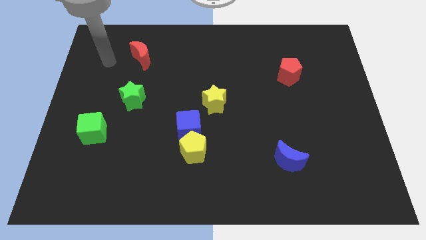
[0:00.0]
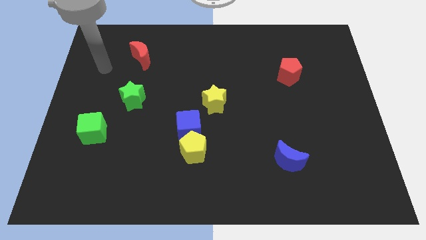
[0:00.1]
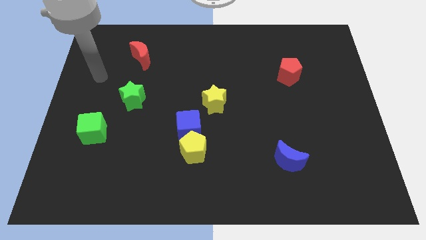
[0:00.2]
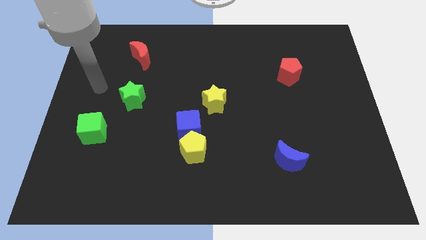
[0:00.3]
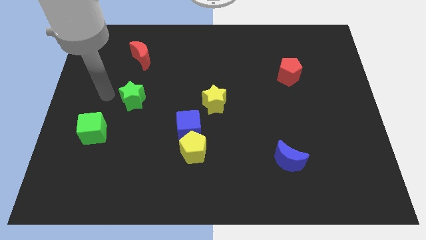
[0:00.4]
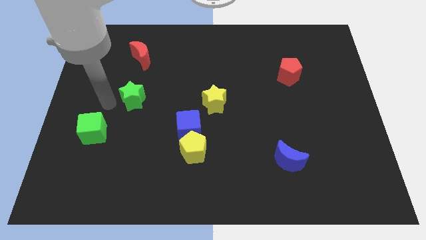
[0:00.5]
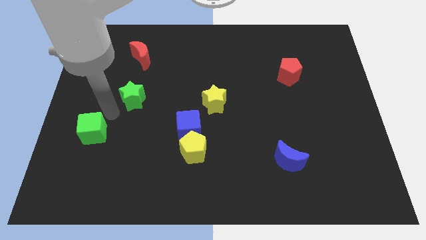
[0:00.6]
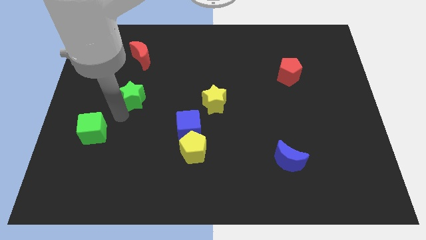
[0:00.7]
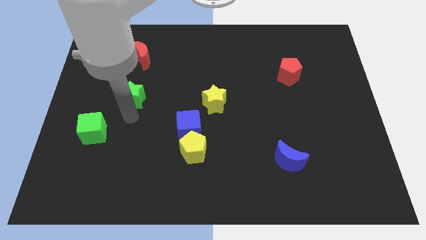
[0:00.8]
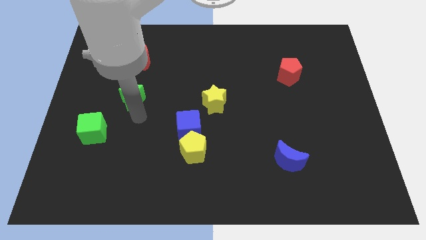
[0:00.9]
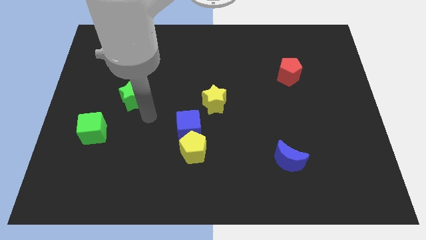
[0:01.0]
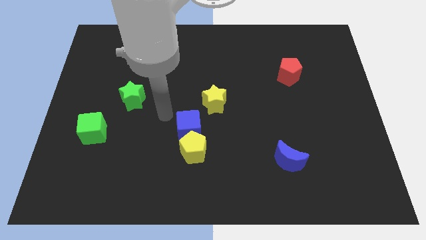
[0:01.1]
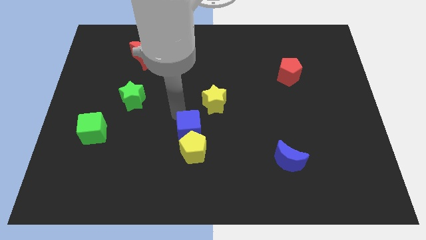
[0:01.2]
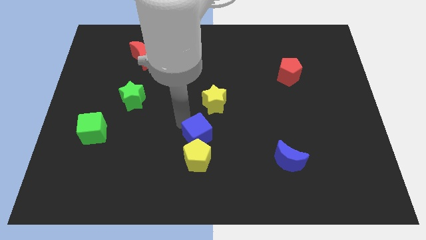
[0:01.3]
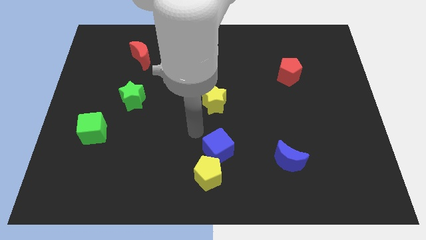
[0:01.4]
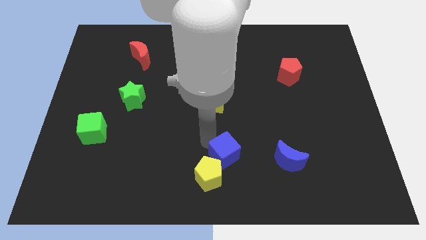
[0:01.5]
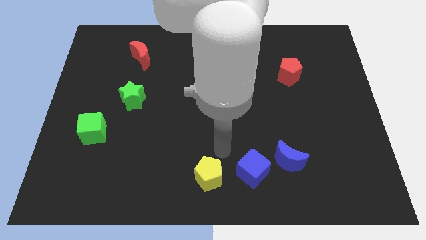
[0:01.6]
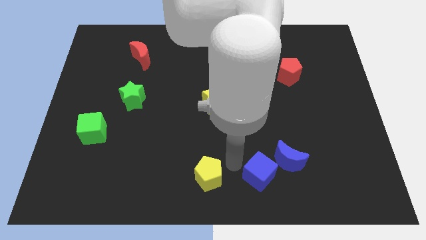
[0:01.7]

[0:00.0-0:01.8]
separate the yellow pentagon from the blue cube

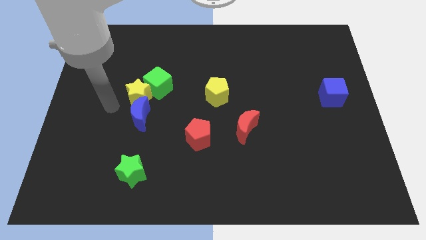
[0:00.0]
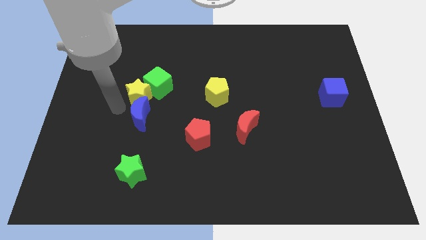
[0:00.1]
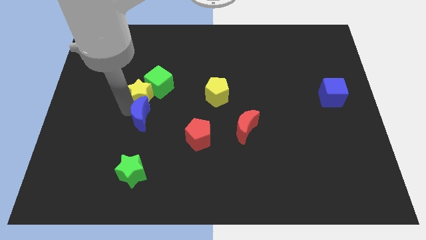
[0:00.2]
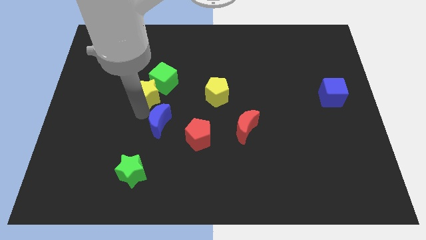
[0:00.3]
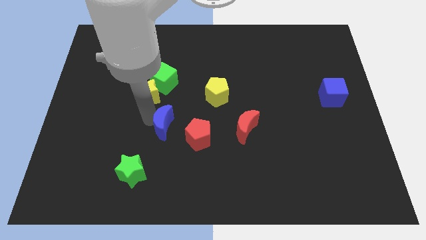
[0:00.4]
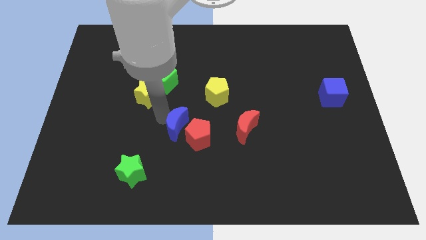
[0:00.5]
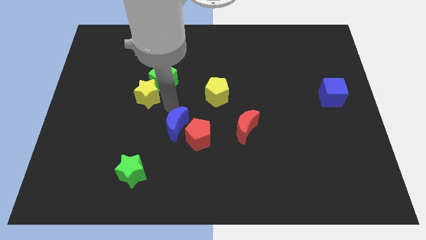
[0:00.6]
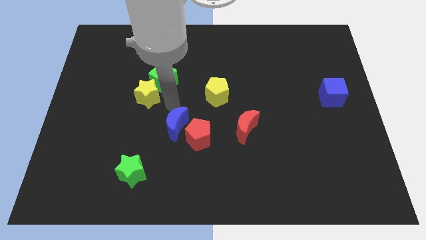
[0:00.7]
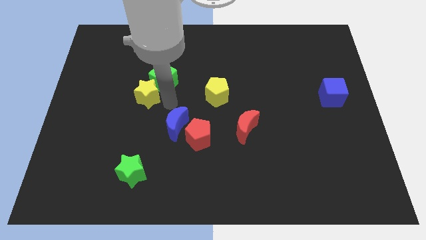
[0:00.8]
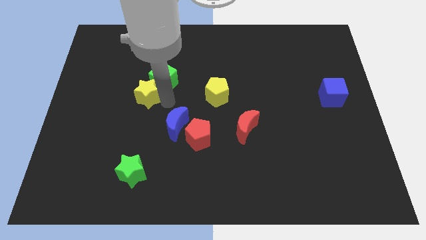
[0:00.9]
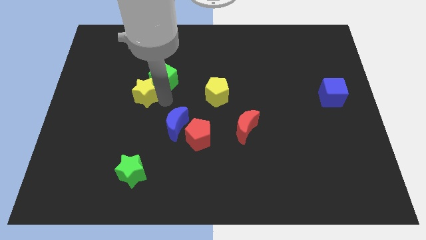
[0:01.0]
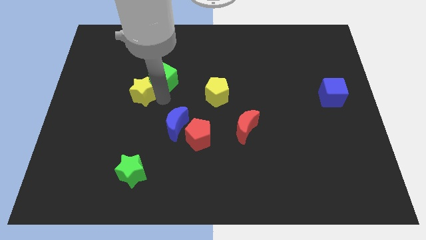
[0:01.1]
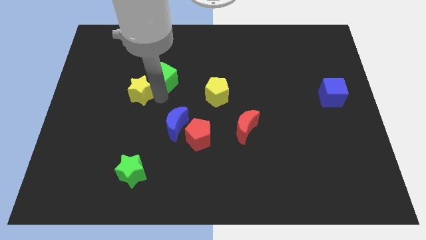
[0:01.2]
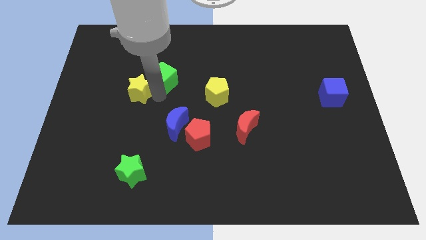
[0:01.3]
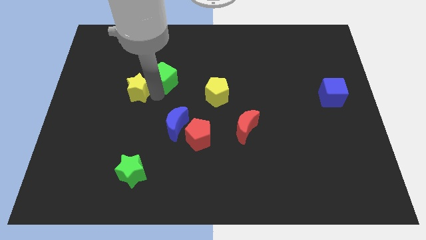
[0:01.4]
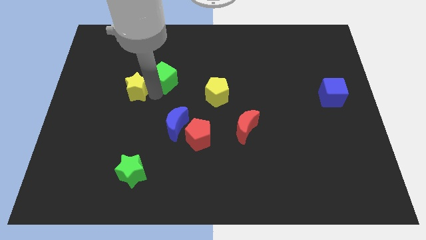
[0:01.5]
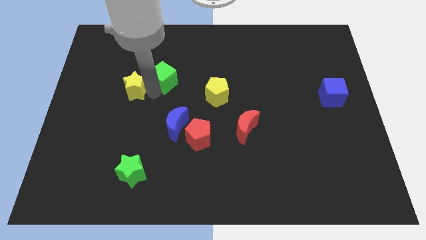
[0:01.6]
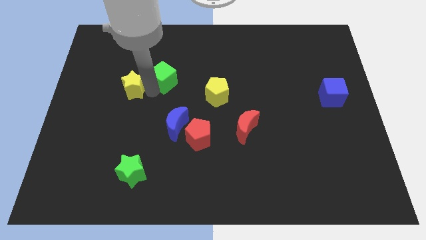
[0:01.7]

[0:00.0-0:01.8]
separate the yellow star from the green cube and blue moon

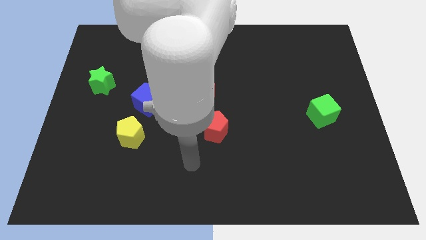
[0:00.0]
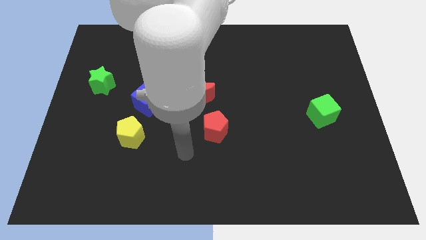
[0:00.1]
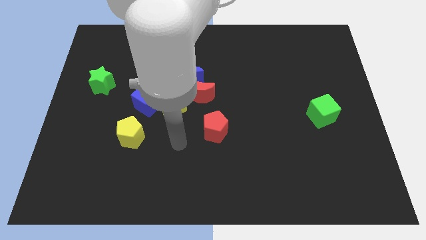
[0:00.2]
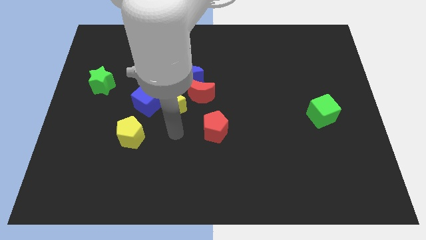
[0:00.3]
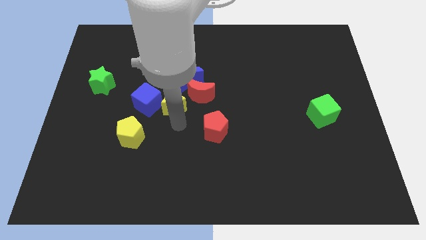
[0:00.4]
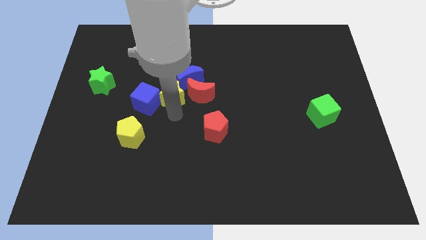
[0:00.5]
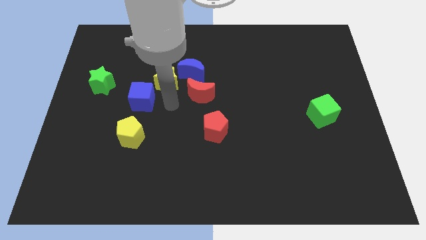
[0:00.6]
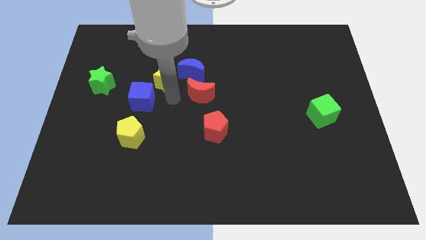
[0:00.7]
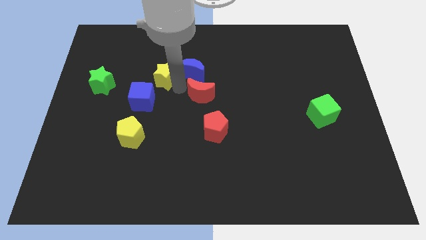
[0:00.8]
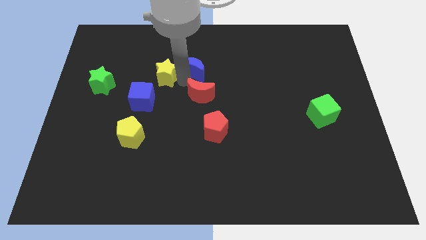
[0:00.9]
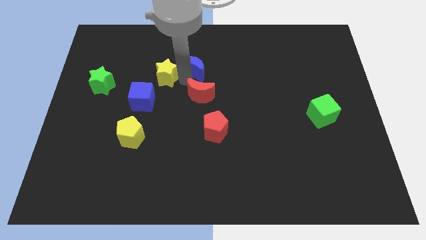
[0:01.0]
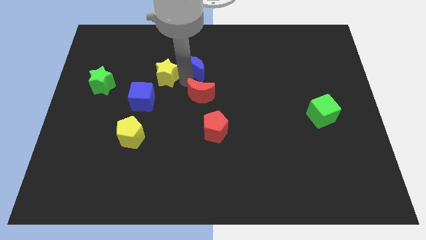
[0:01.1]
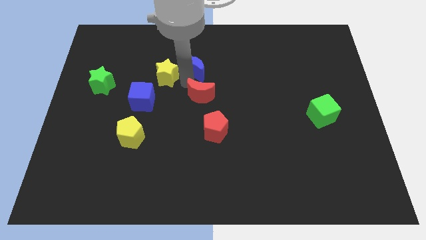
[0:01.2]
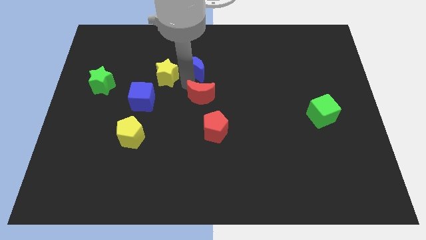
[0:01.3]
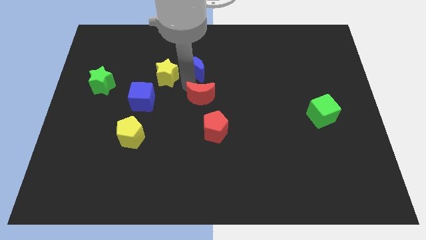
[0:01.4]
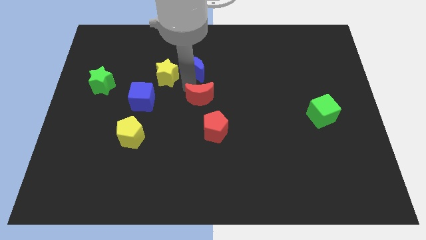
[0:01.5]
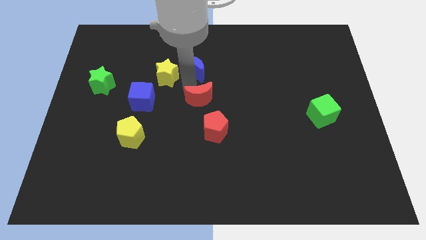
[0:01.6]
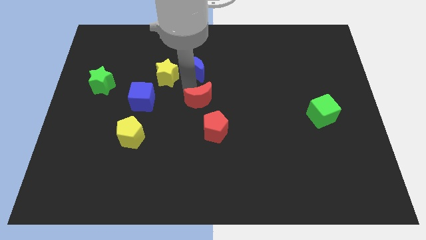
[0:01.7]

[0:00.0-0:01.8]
pull the red moon apart from the blue moon and yellow star

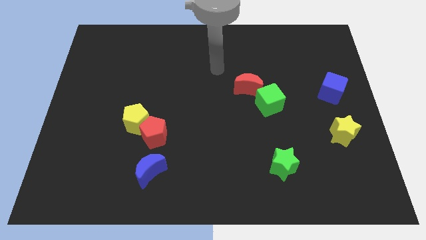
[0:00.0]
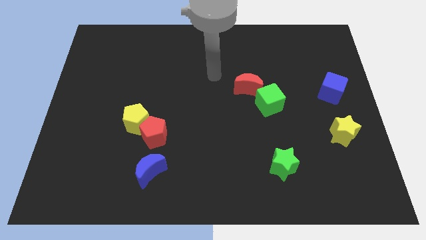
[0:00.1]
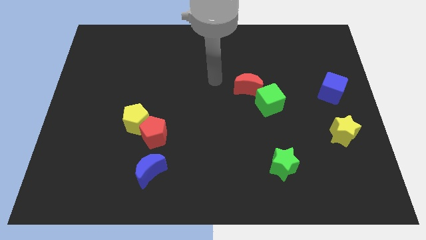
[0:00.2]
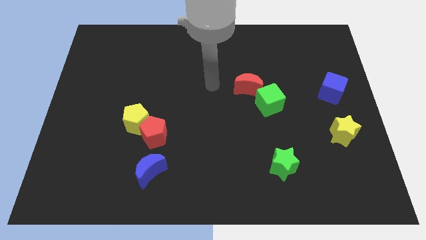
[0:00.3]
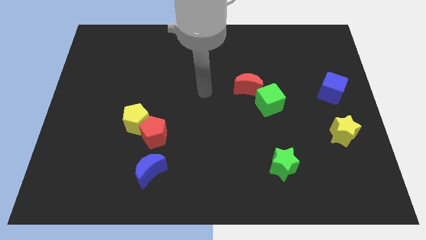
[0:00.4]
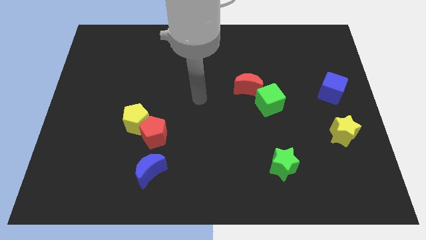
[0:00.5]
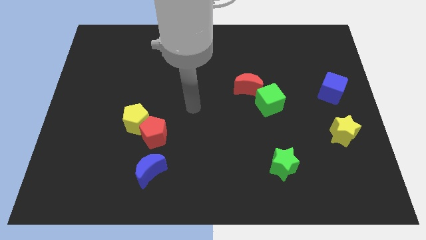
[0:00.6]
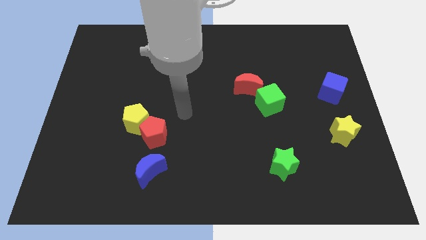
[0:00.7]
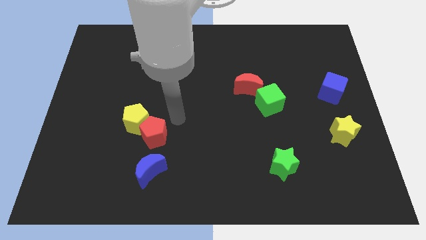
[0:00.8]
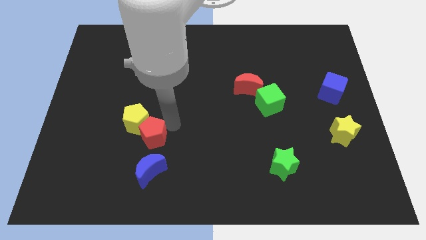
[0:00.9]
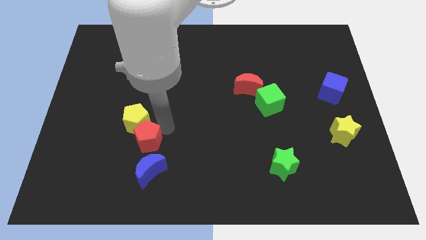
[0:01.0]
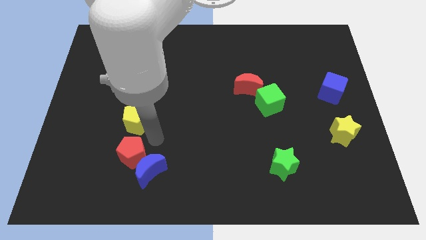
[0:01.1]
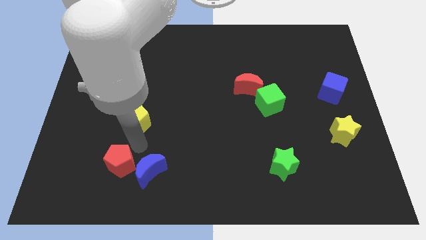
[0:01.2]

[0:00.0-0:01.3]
separate the yellow pentagon from the red pentagon

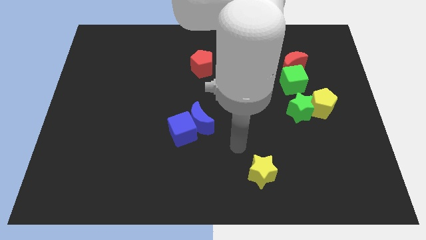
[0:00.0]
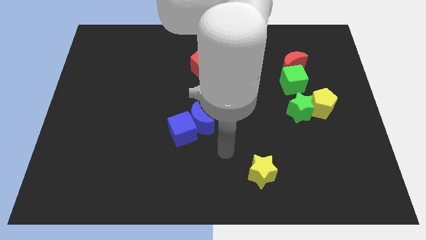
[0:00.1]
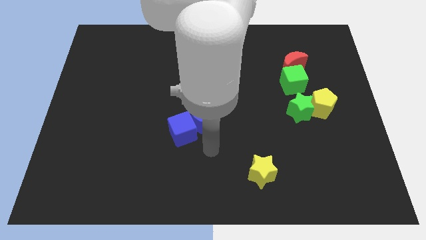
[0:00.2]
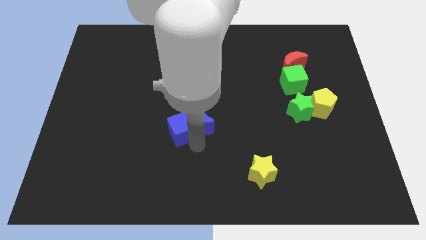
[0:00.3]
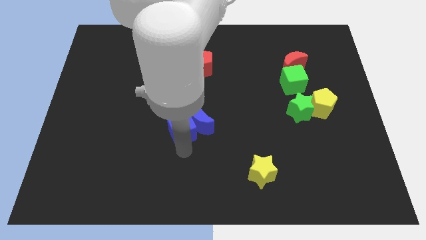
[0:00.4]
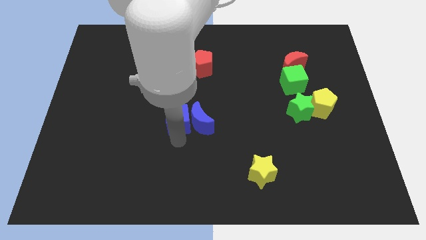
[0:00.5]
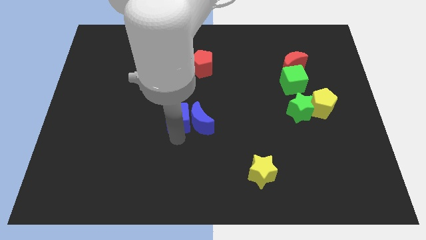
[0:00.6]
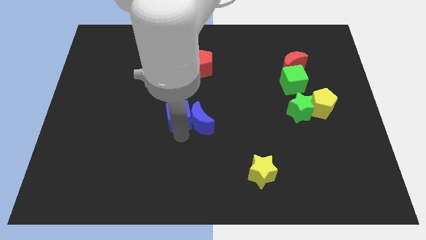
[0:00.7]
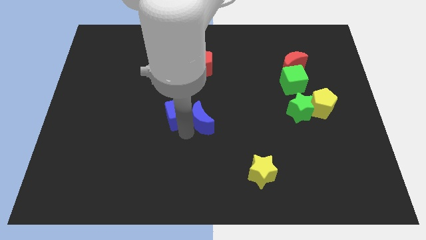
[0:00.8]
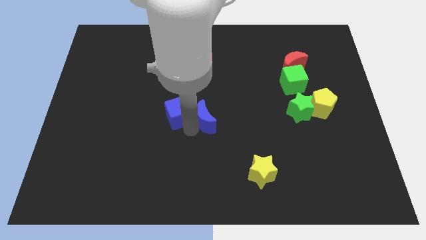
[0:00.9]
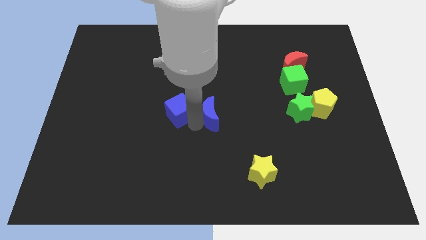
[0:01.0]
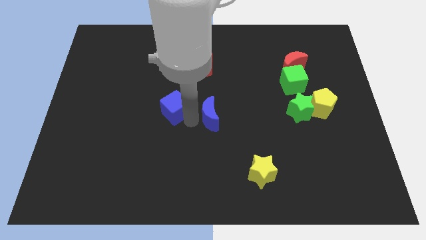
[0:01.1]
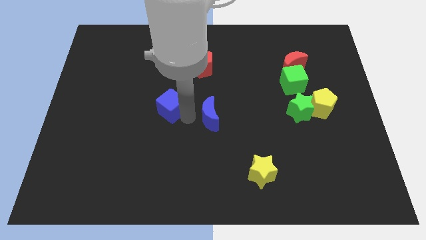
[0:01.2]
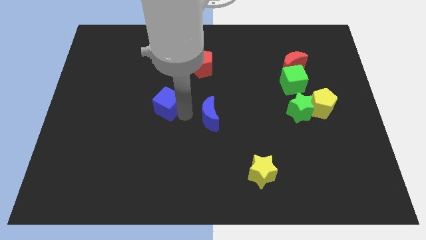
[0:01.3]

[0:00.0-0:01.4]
move the blue moon away from the blue cube

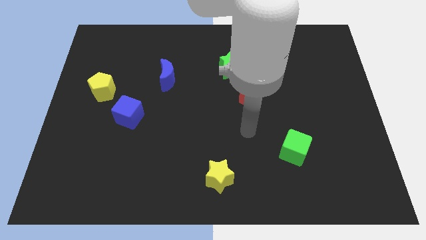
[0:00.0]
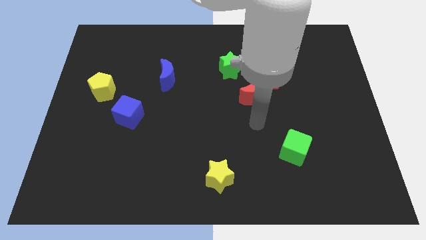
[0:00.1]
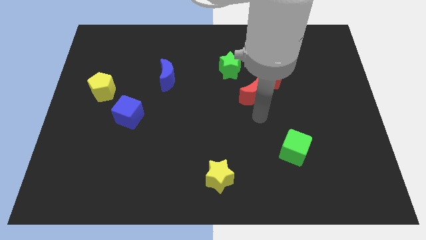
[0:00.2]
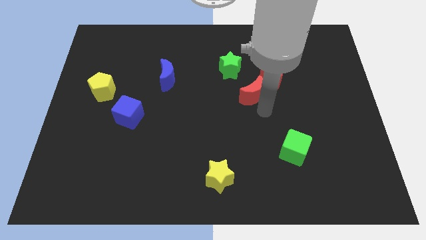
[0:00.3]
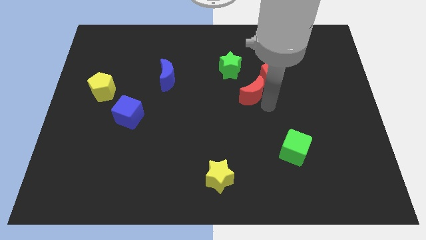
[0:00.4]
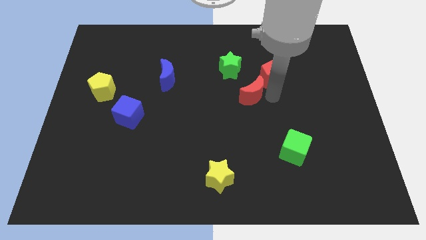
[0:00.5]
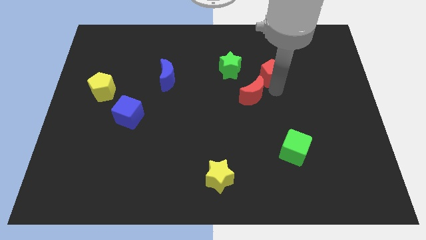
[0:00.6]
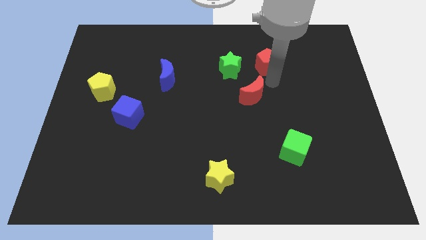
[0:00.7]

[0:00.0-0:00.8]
move the red moon away from the red pentagon

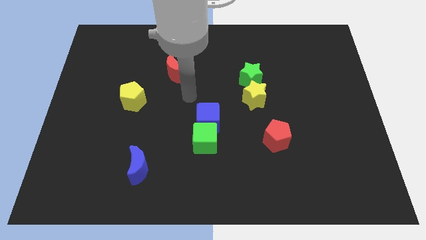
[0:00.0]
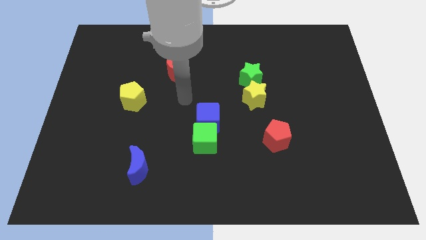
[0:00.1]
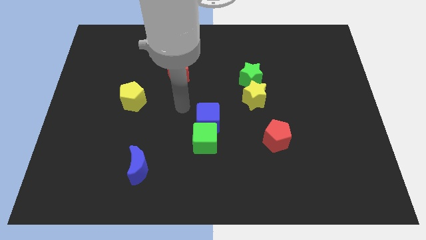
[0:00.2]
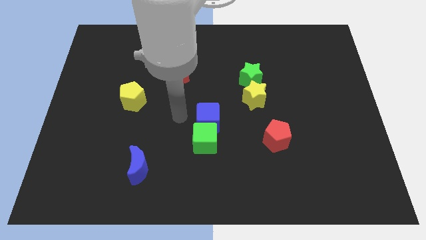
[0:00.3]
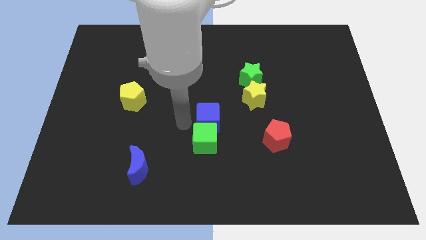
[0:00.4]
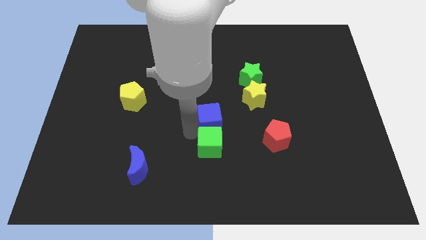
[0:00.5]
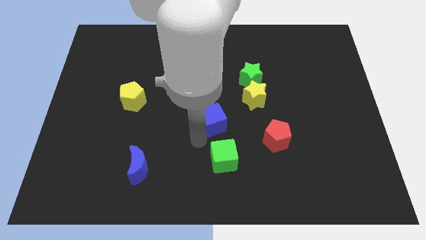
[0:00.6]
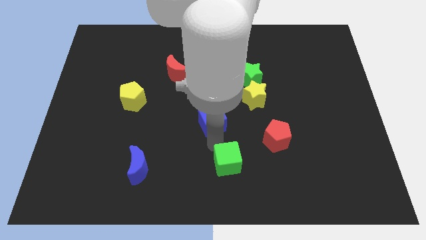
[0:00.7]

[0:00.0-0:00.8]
pull the blue cube apart from the green cube
